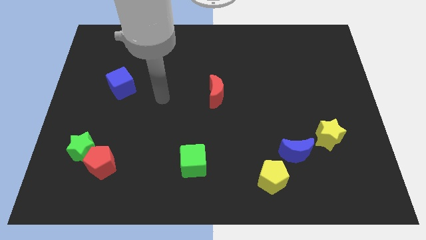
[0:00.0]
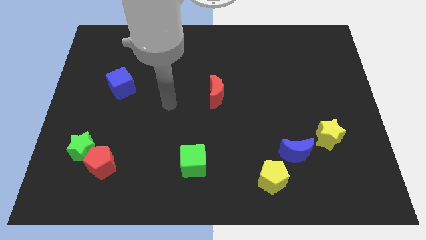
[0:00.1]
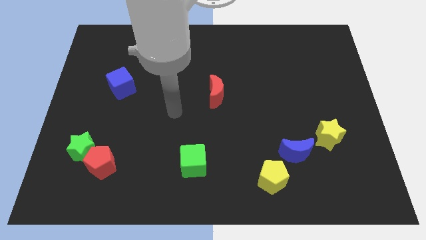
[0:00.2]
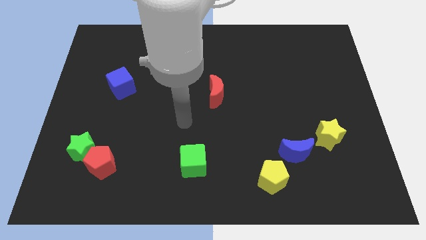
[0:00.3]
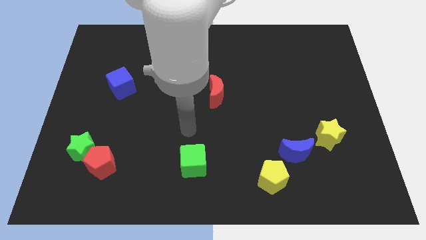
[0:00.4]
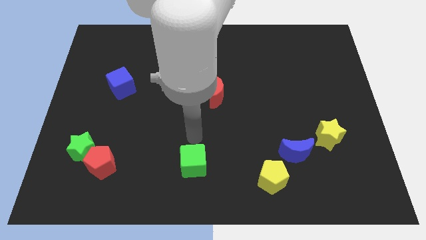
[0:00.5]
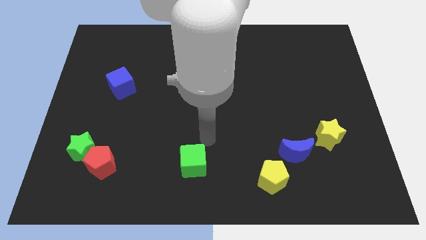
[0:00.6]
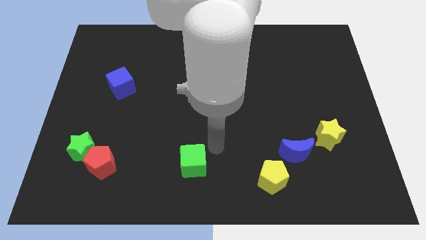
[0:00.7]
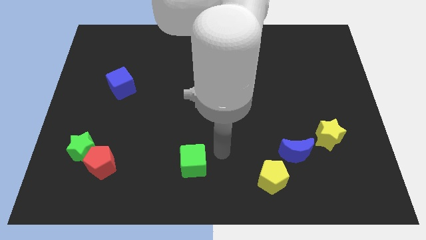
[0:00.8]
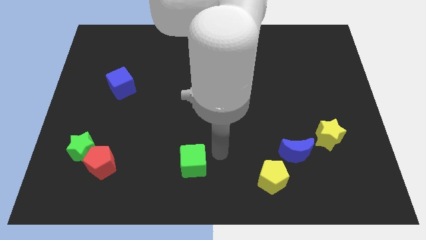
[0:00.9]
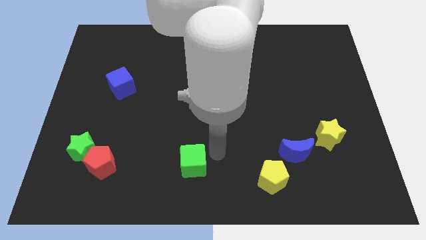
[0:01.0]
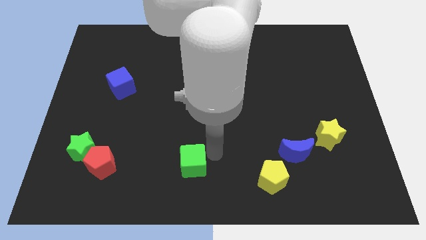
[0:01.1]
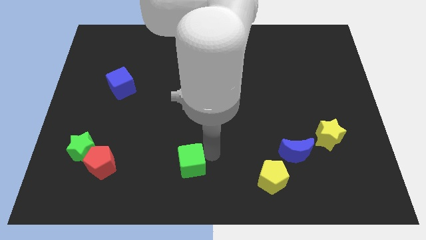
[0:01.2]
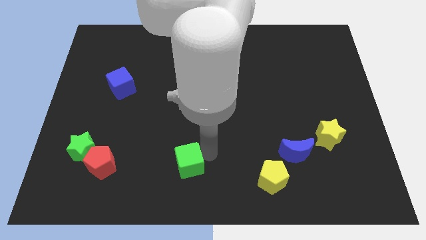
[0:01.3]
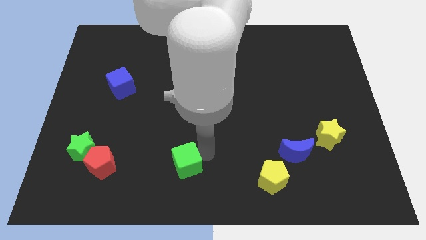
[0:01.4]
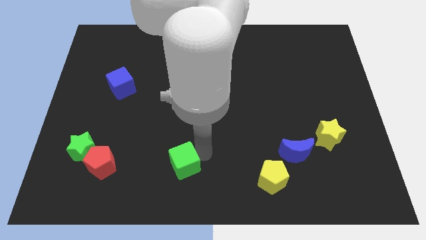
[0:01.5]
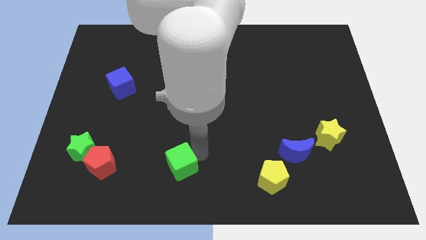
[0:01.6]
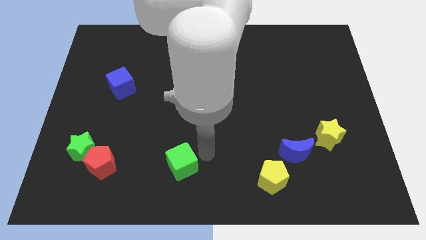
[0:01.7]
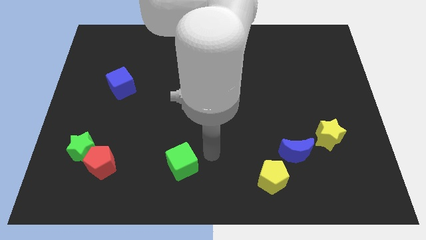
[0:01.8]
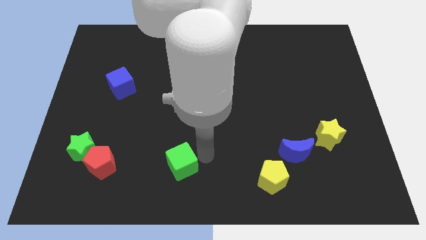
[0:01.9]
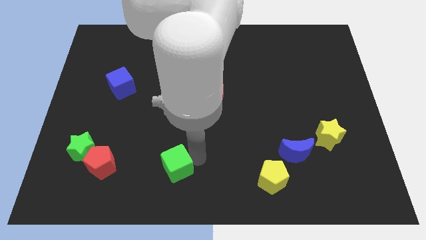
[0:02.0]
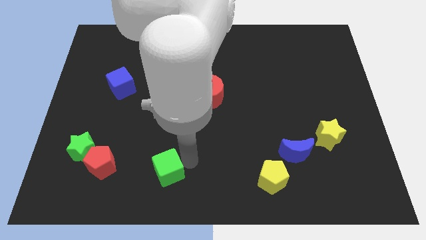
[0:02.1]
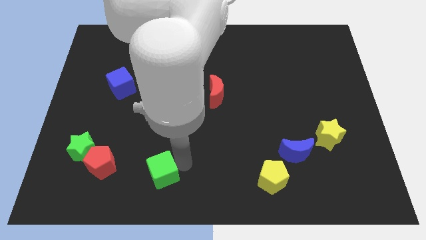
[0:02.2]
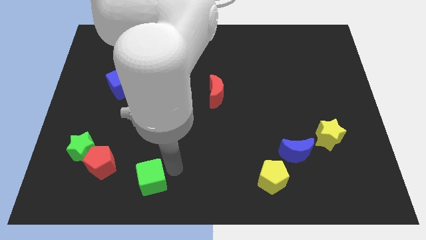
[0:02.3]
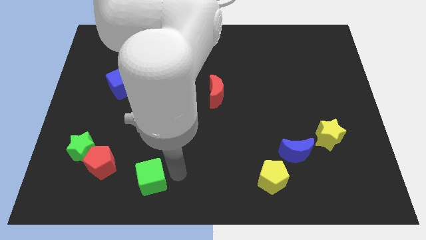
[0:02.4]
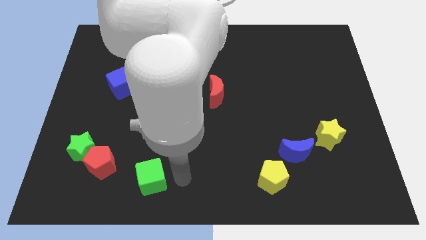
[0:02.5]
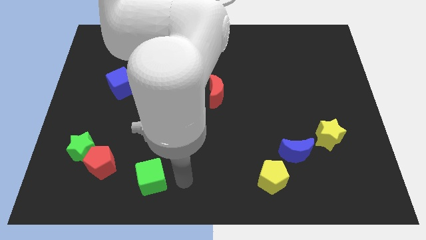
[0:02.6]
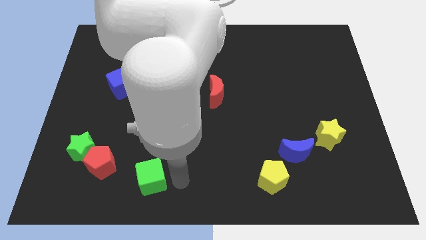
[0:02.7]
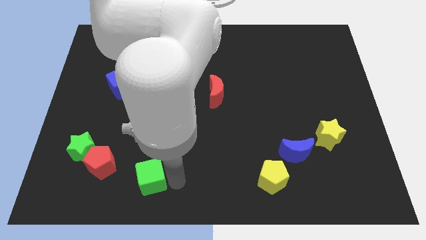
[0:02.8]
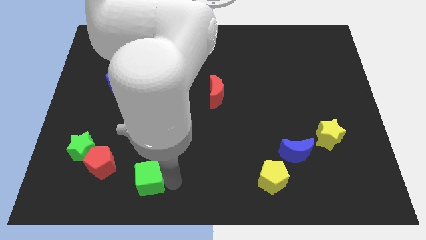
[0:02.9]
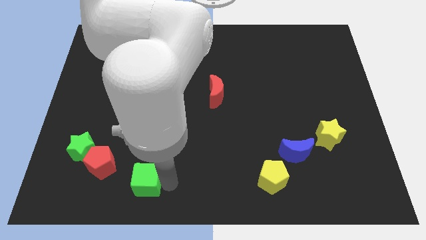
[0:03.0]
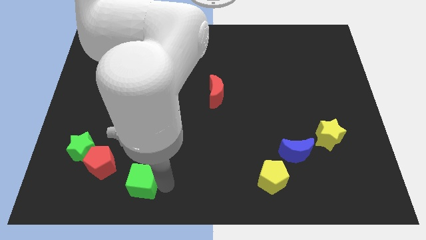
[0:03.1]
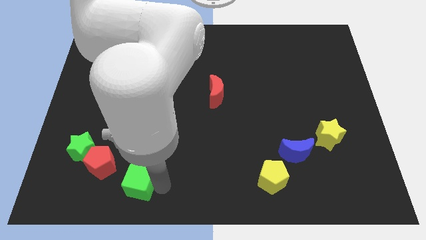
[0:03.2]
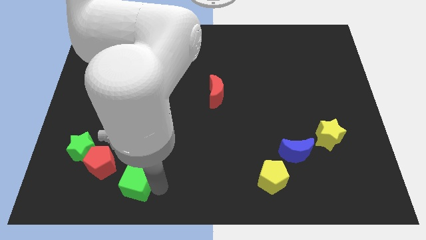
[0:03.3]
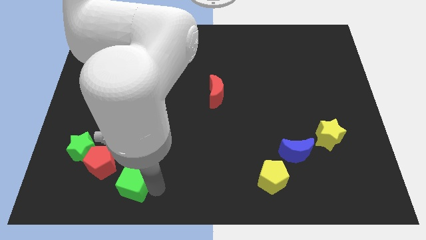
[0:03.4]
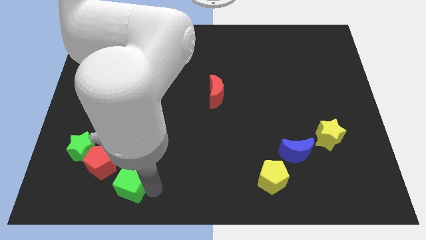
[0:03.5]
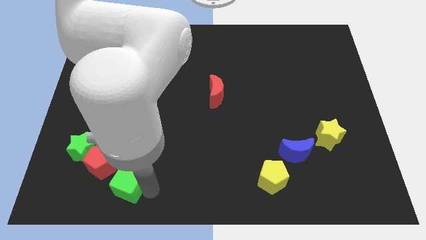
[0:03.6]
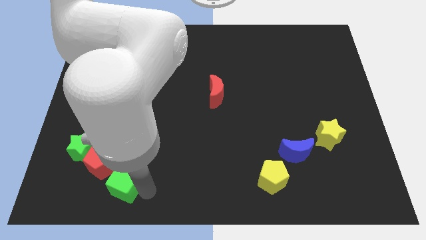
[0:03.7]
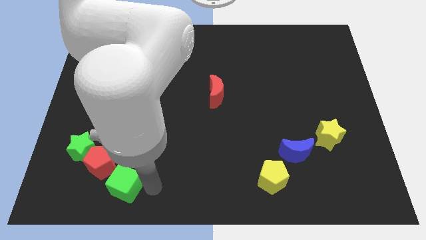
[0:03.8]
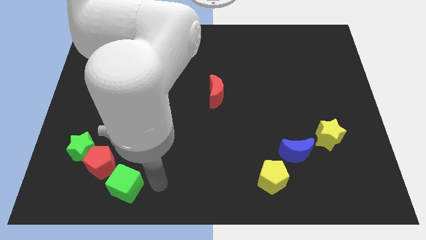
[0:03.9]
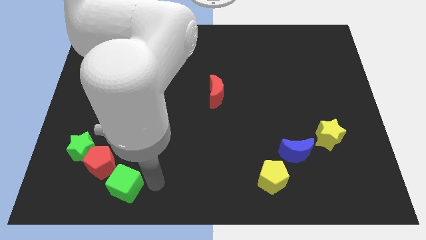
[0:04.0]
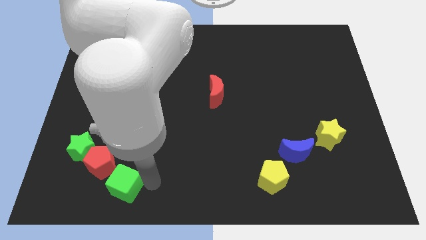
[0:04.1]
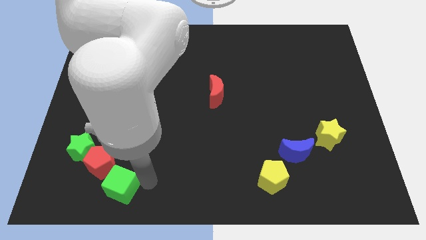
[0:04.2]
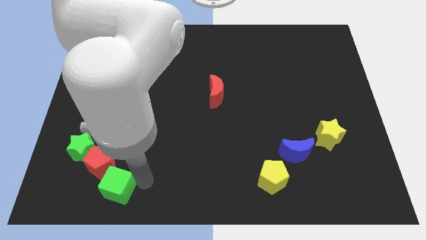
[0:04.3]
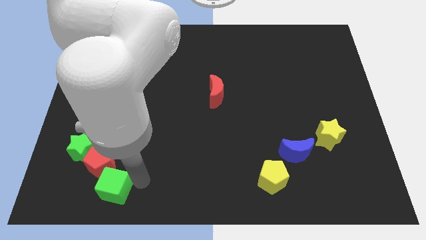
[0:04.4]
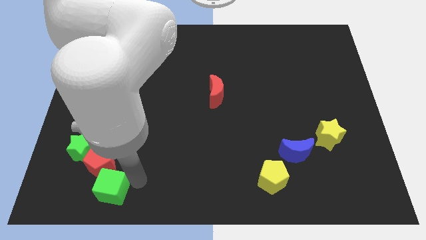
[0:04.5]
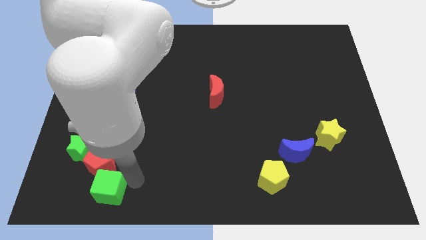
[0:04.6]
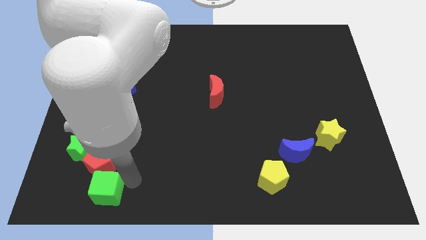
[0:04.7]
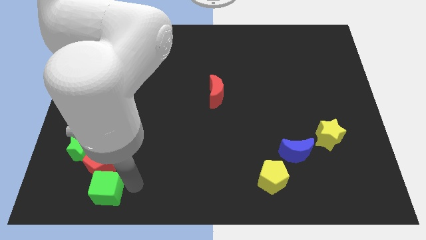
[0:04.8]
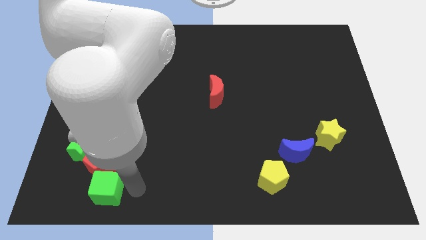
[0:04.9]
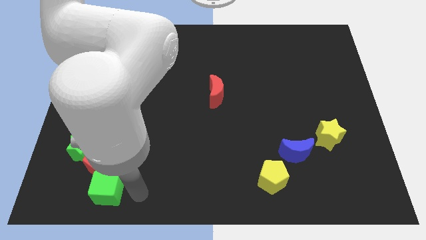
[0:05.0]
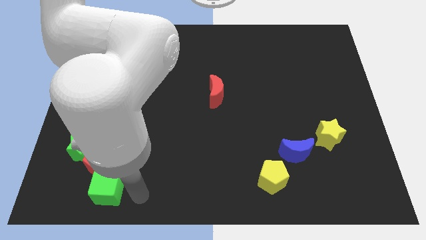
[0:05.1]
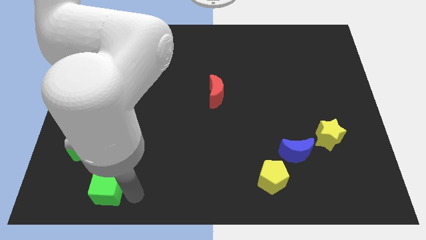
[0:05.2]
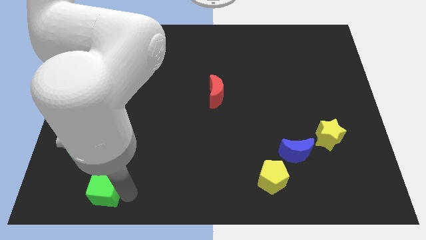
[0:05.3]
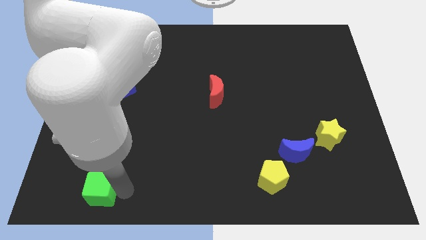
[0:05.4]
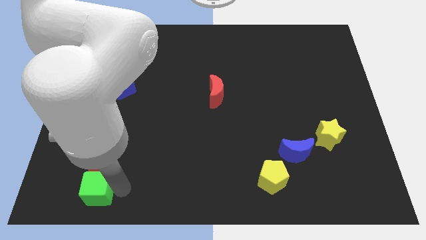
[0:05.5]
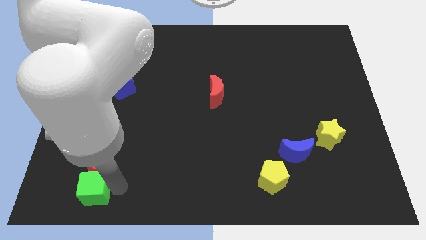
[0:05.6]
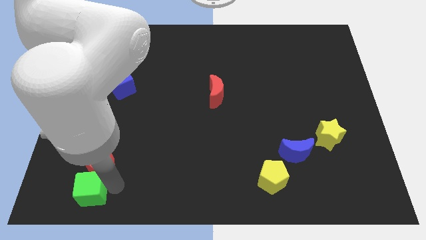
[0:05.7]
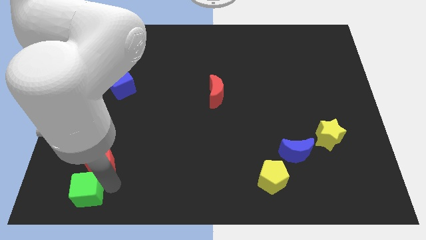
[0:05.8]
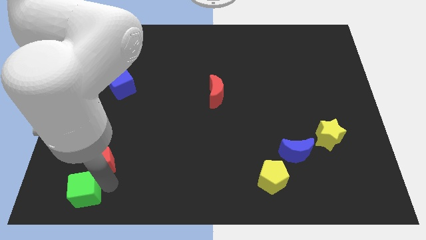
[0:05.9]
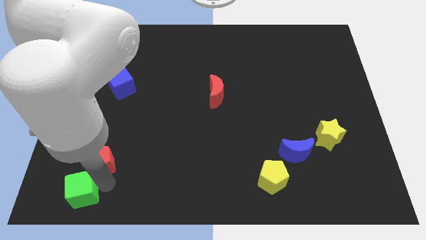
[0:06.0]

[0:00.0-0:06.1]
slide the green cube to the bottom left of the board
